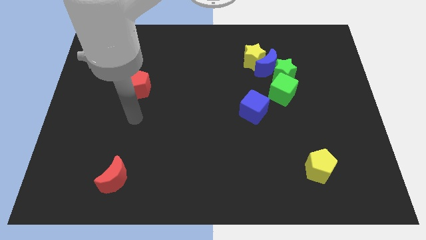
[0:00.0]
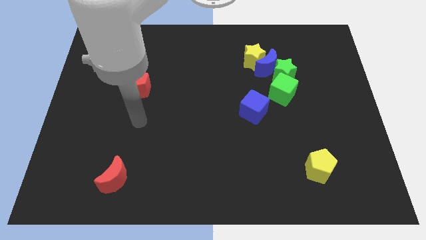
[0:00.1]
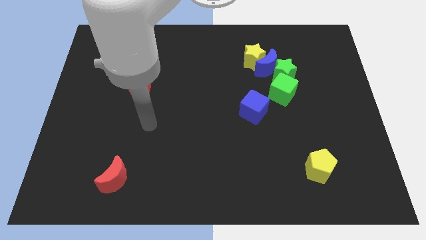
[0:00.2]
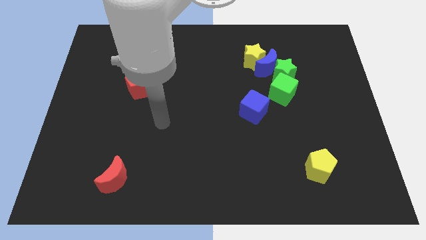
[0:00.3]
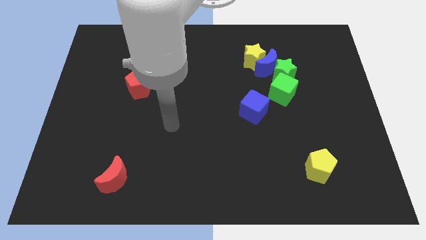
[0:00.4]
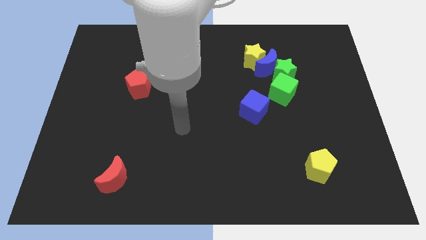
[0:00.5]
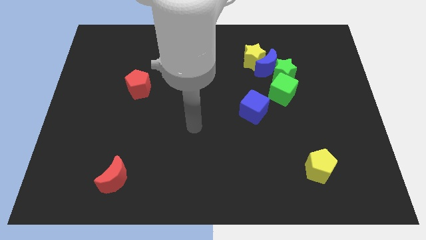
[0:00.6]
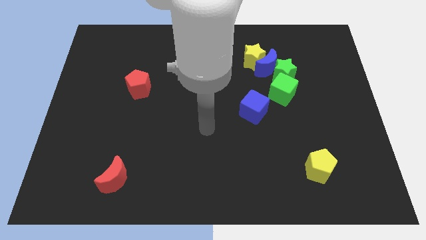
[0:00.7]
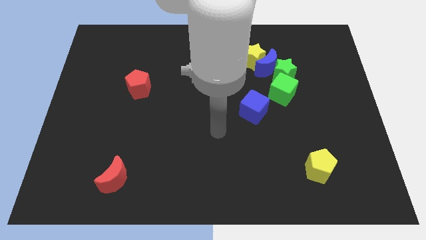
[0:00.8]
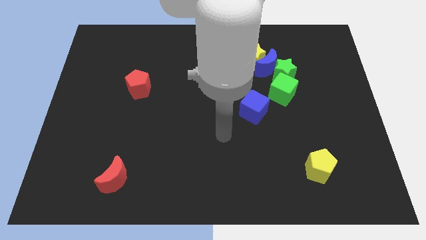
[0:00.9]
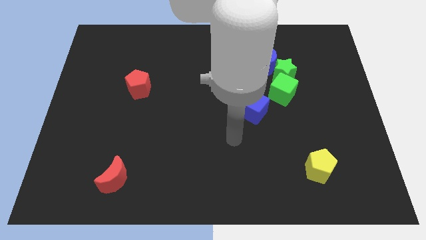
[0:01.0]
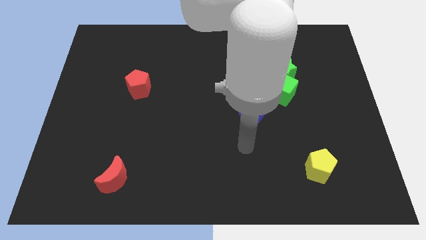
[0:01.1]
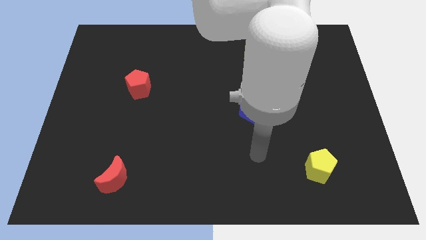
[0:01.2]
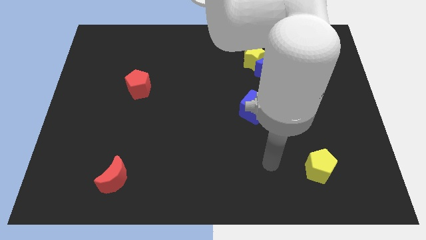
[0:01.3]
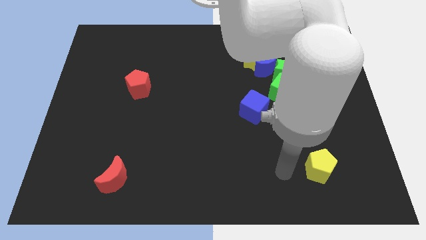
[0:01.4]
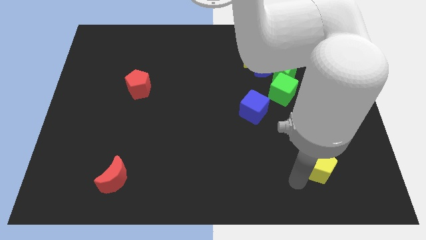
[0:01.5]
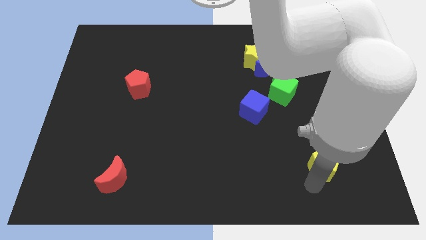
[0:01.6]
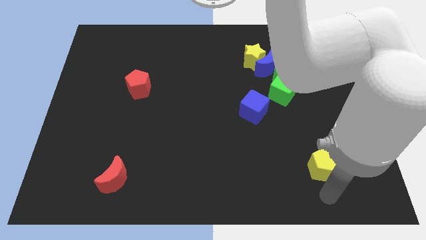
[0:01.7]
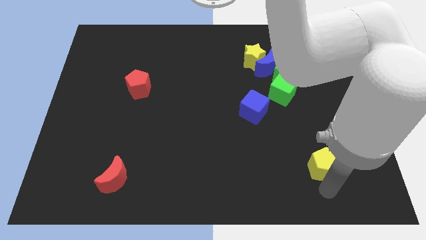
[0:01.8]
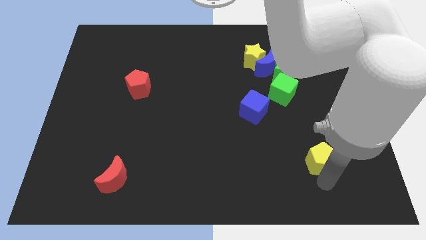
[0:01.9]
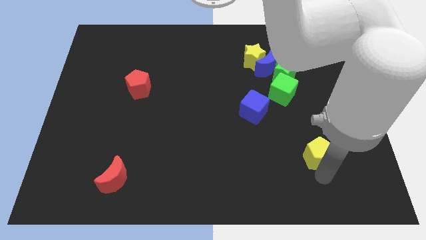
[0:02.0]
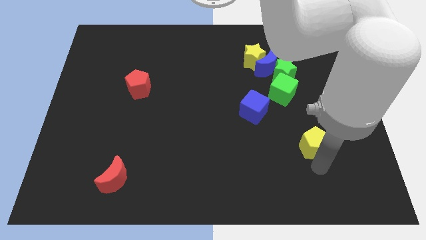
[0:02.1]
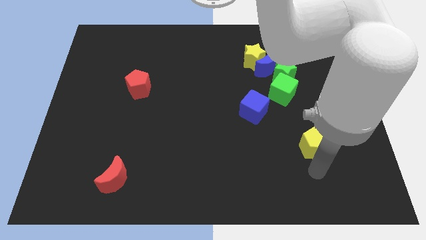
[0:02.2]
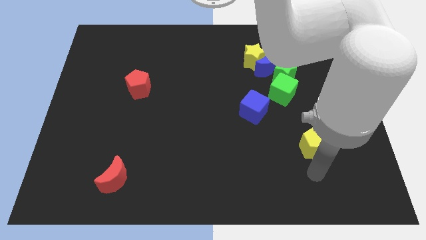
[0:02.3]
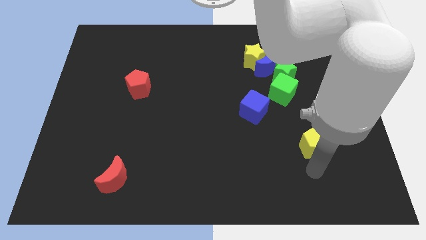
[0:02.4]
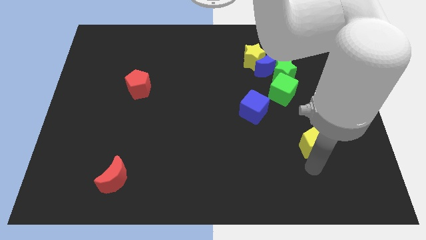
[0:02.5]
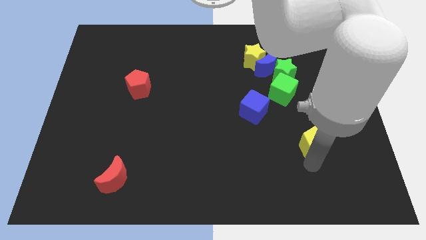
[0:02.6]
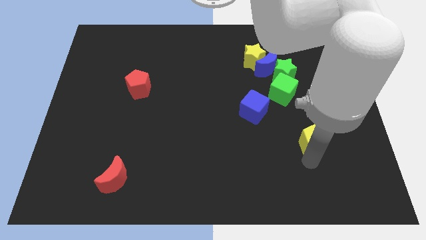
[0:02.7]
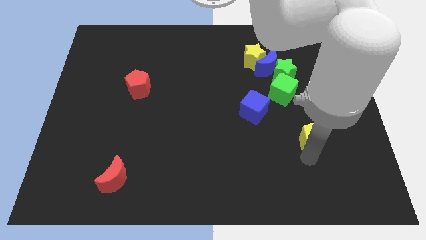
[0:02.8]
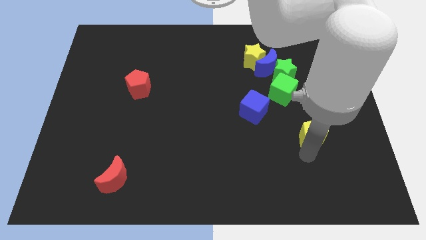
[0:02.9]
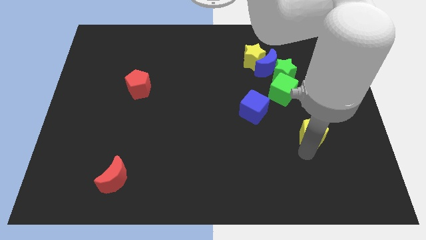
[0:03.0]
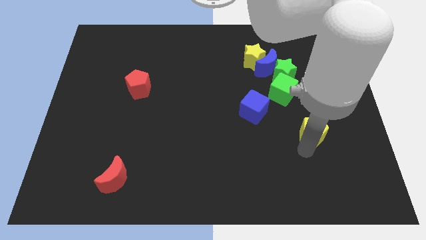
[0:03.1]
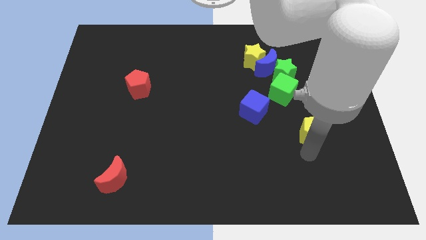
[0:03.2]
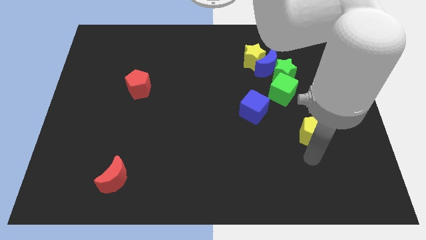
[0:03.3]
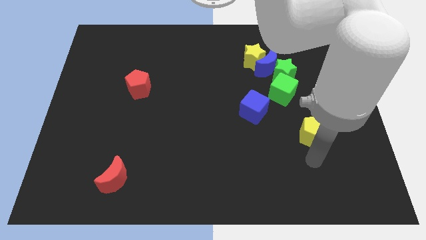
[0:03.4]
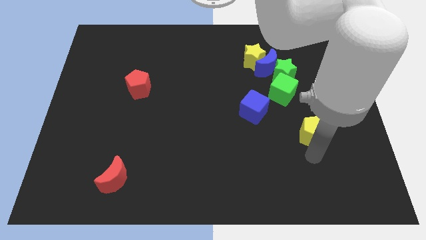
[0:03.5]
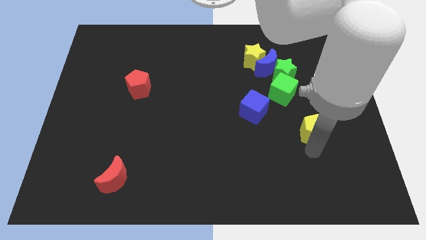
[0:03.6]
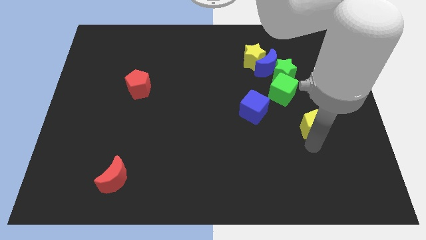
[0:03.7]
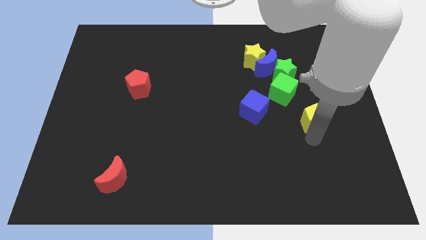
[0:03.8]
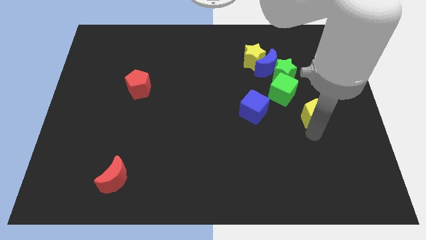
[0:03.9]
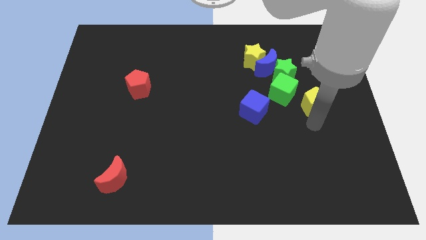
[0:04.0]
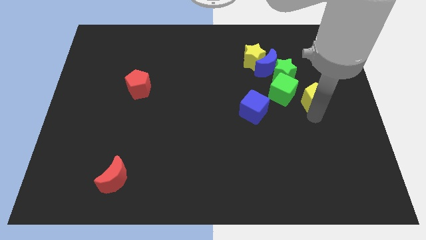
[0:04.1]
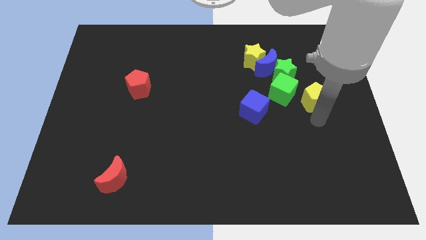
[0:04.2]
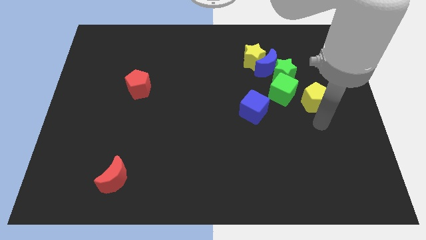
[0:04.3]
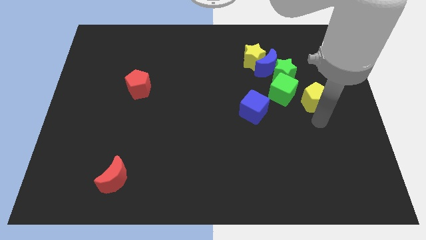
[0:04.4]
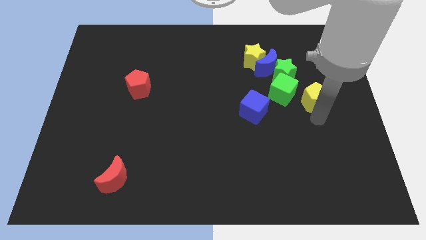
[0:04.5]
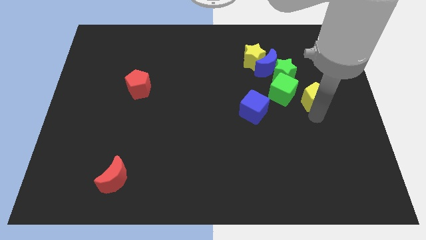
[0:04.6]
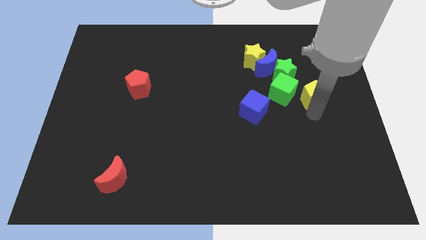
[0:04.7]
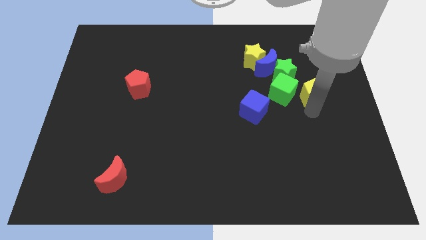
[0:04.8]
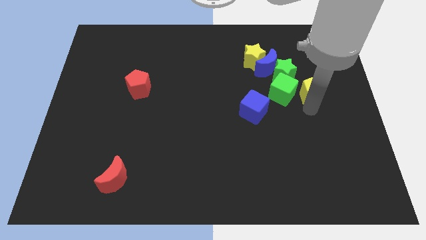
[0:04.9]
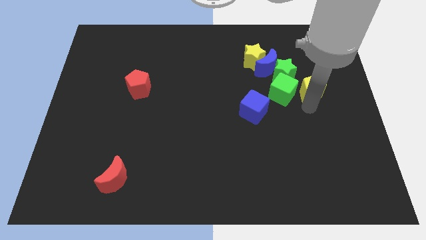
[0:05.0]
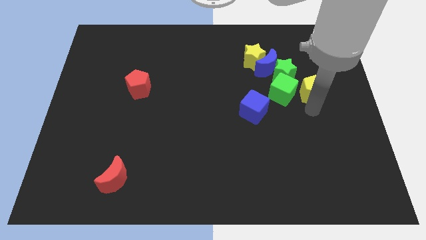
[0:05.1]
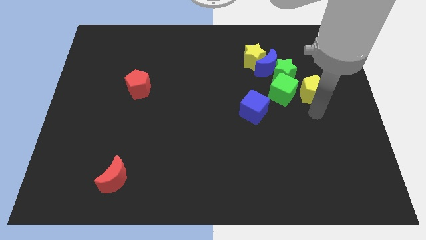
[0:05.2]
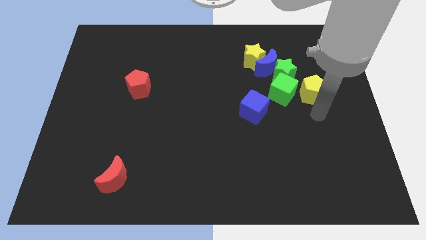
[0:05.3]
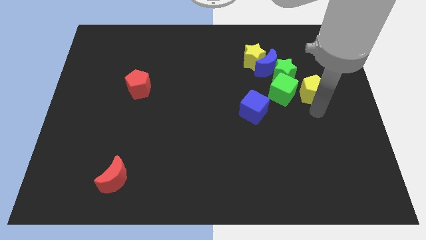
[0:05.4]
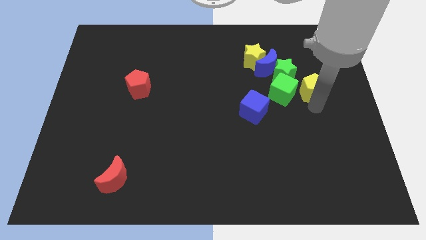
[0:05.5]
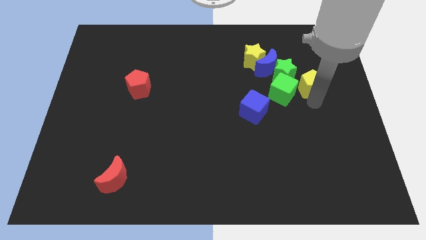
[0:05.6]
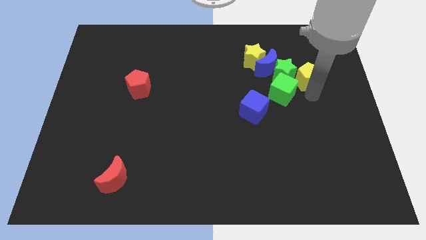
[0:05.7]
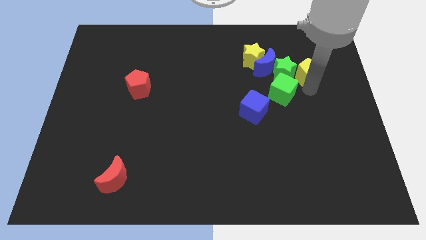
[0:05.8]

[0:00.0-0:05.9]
slide the yellow pentagon diagonally up and to the right of the green star

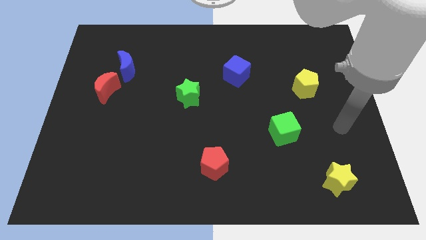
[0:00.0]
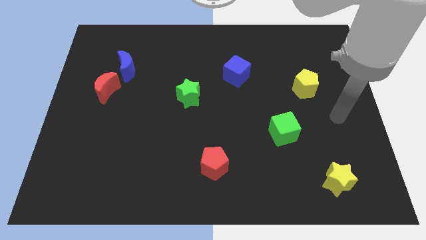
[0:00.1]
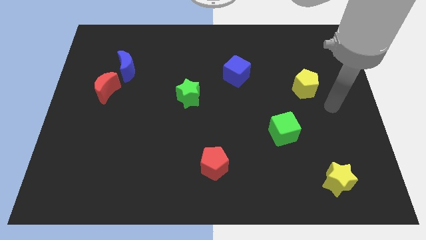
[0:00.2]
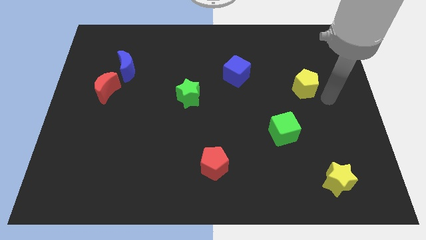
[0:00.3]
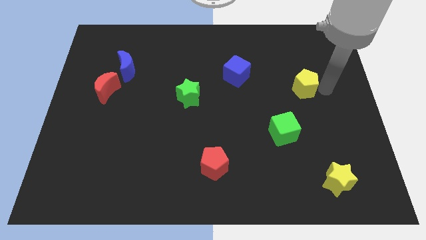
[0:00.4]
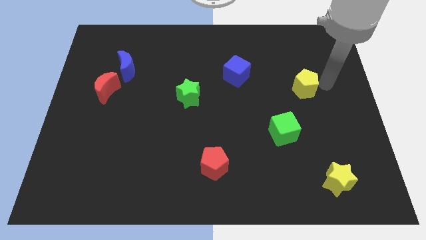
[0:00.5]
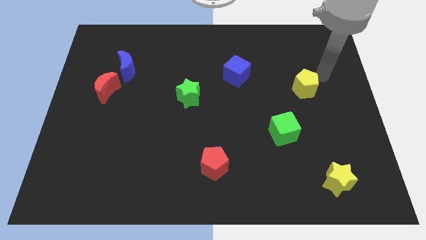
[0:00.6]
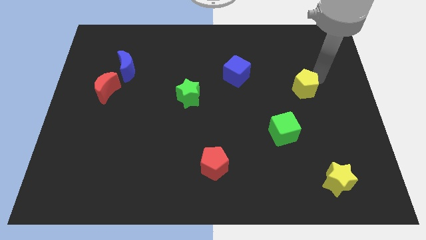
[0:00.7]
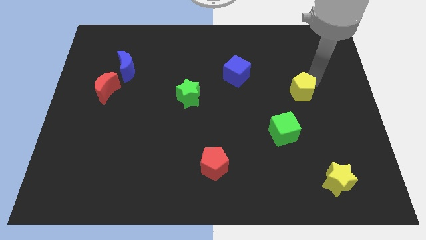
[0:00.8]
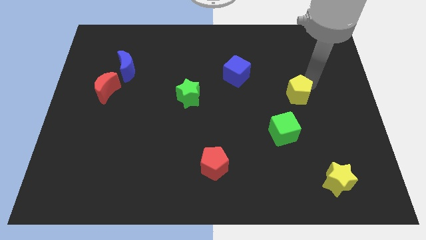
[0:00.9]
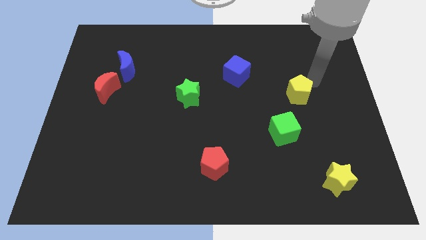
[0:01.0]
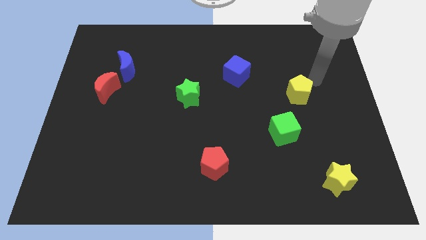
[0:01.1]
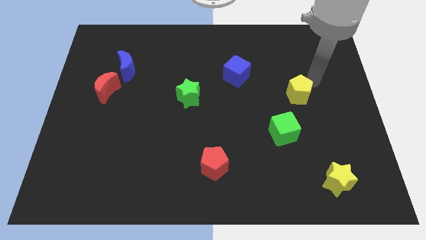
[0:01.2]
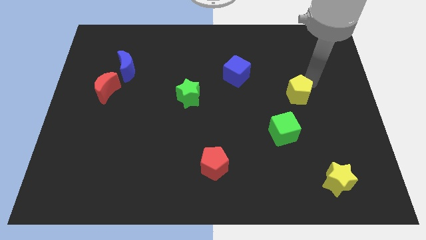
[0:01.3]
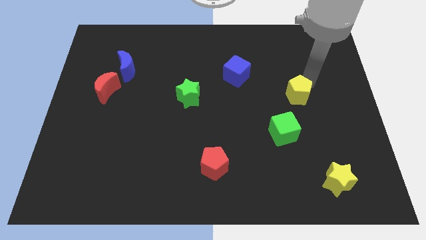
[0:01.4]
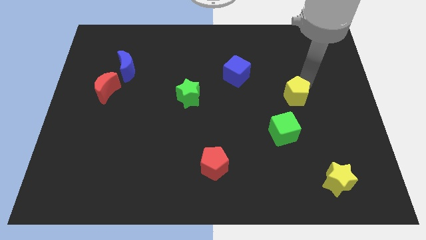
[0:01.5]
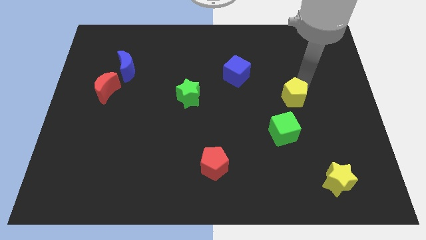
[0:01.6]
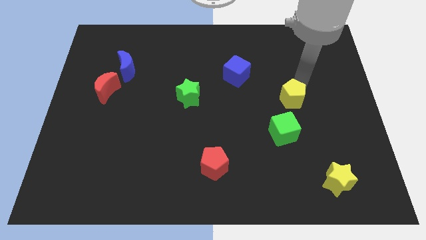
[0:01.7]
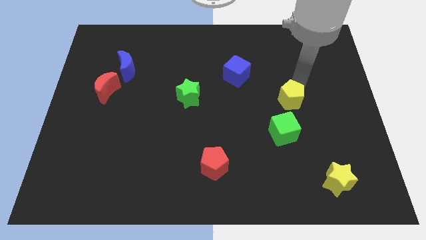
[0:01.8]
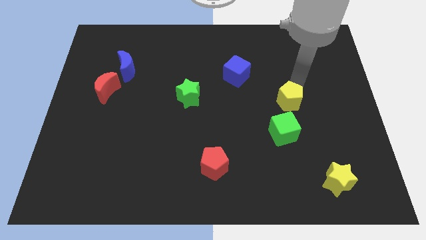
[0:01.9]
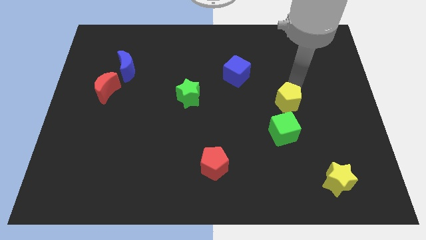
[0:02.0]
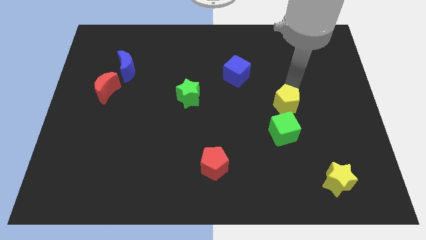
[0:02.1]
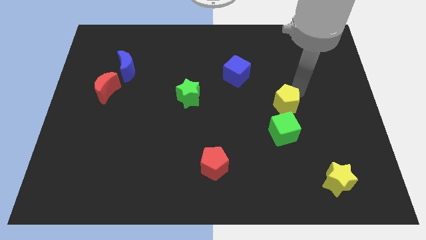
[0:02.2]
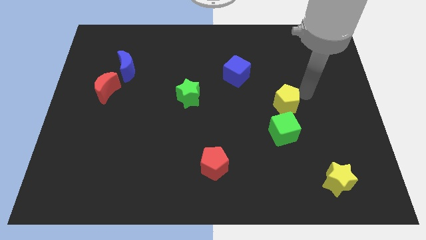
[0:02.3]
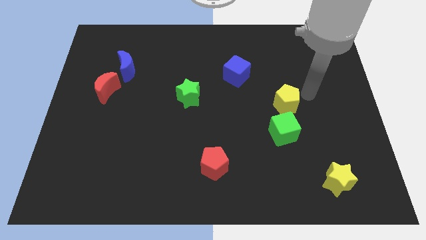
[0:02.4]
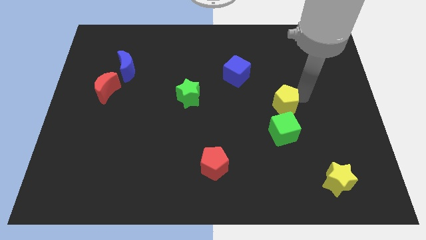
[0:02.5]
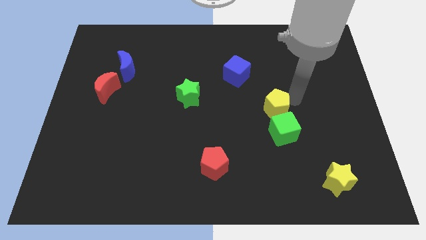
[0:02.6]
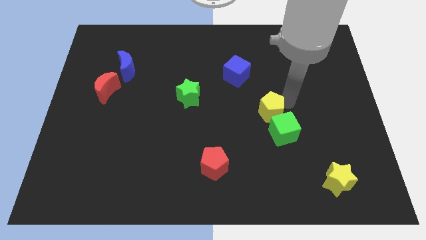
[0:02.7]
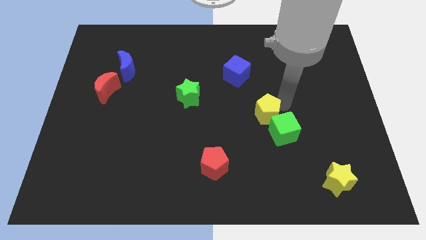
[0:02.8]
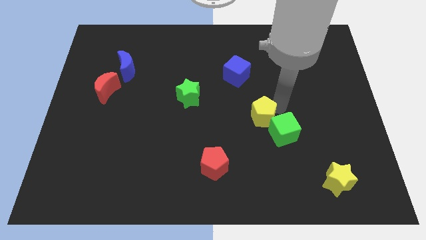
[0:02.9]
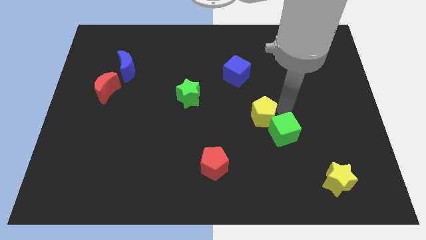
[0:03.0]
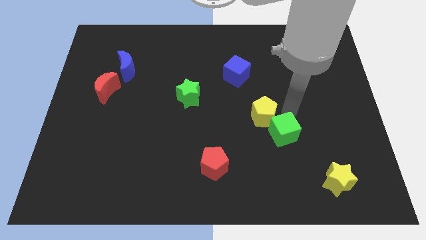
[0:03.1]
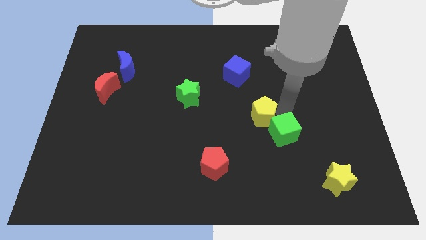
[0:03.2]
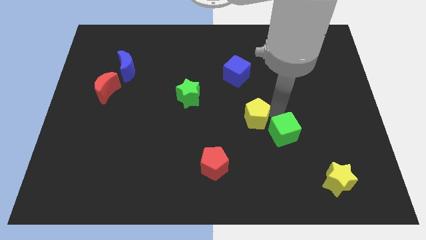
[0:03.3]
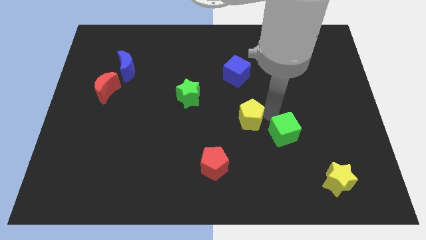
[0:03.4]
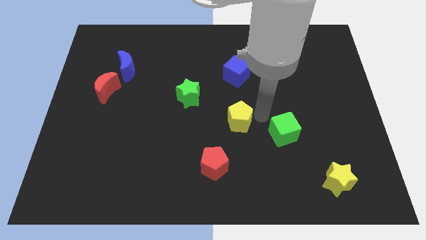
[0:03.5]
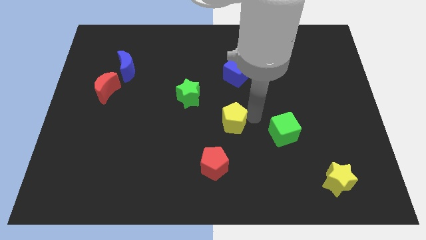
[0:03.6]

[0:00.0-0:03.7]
slide the yellow pentagon above the red pentagon
